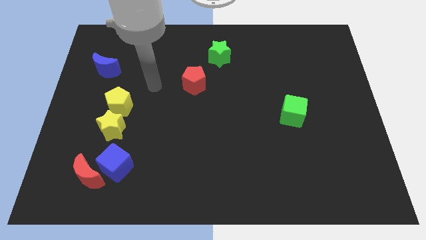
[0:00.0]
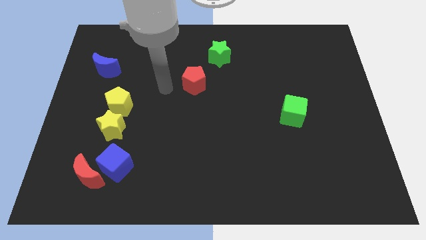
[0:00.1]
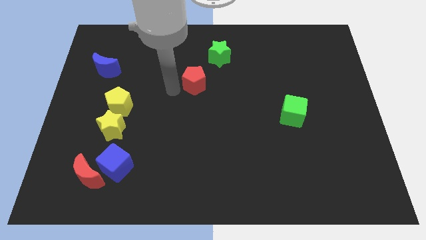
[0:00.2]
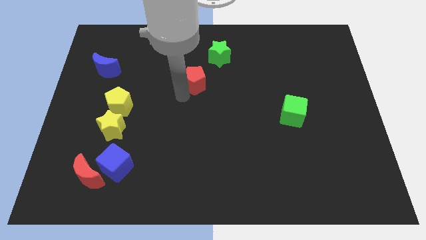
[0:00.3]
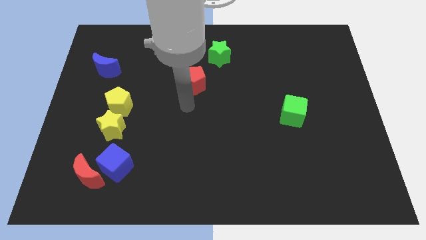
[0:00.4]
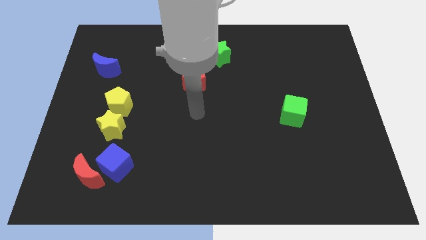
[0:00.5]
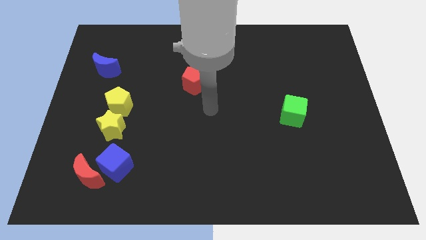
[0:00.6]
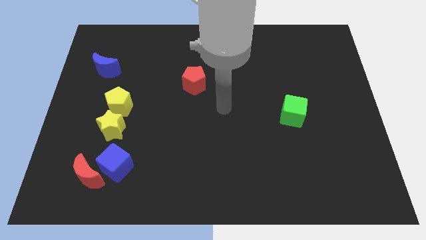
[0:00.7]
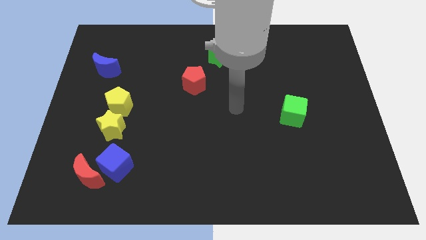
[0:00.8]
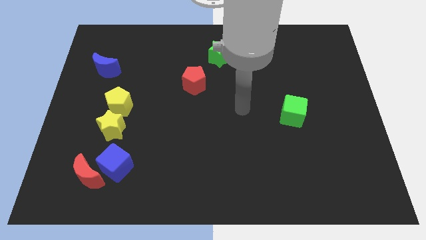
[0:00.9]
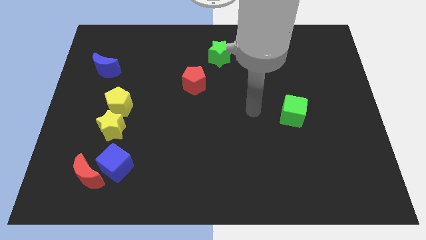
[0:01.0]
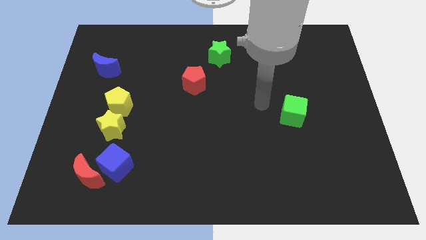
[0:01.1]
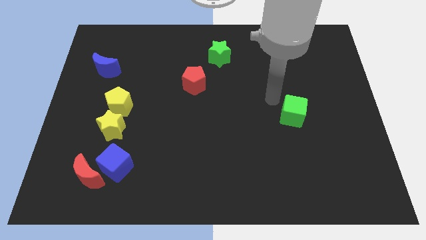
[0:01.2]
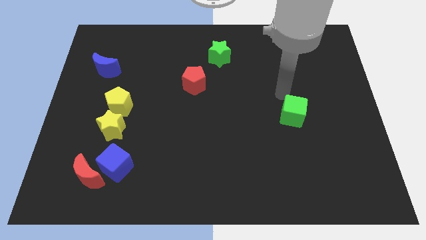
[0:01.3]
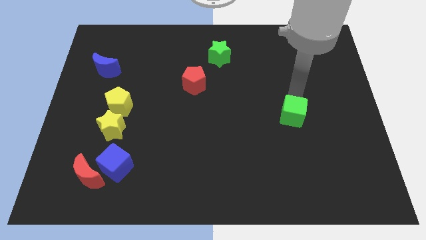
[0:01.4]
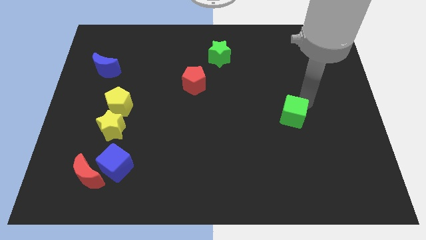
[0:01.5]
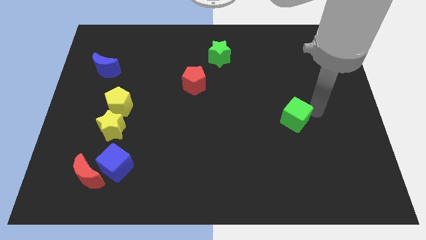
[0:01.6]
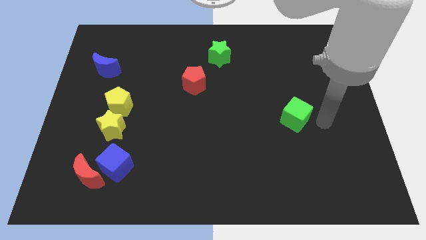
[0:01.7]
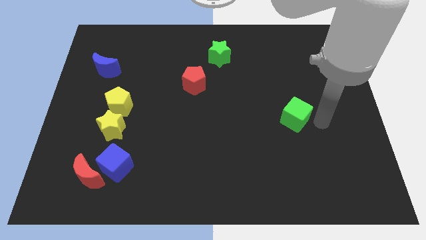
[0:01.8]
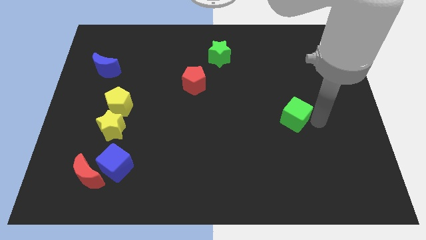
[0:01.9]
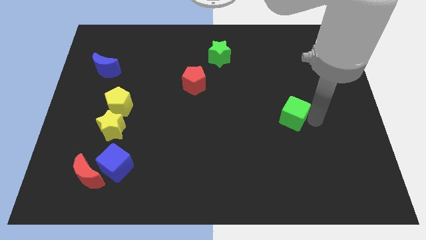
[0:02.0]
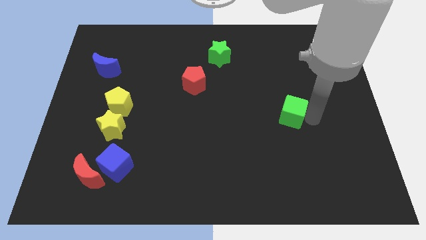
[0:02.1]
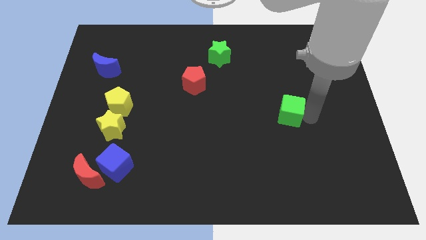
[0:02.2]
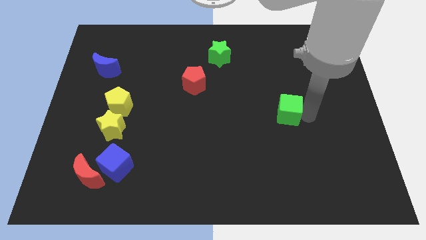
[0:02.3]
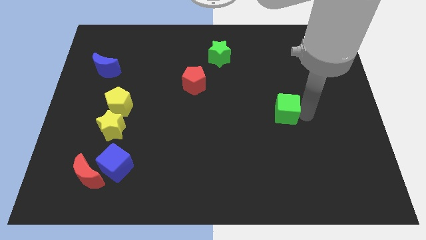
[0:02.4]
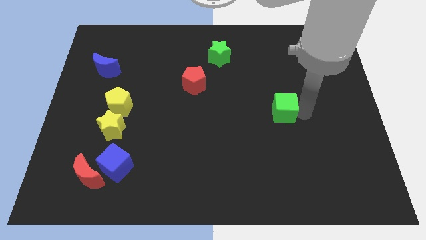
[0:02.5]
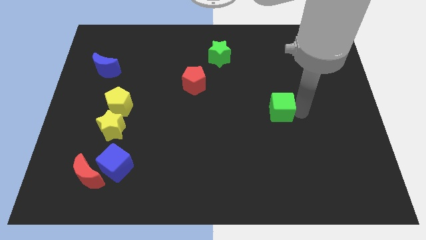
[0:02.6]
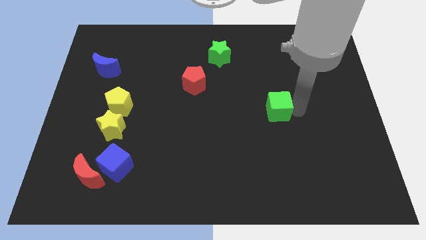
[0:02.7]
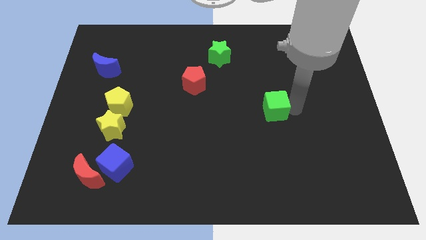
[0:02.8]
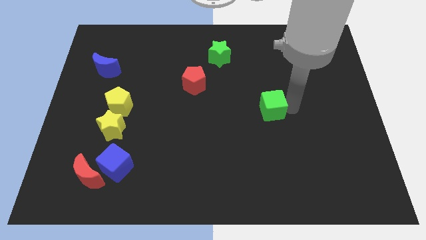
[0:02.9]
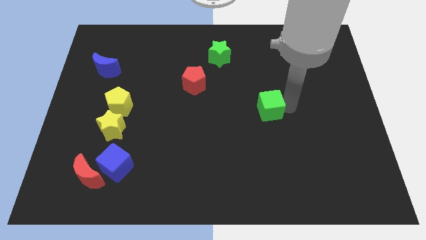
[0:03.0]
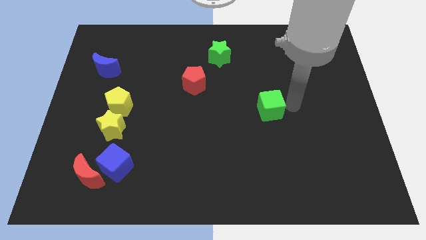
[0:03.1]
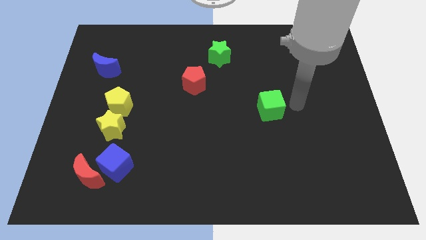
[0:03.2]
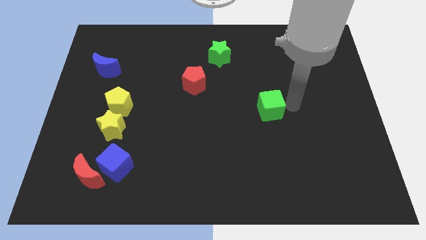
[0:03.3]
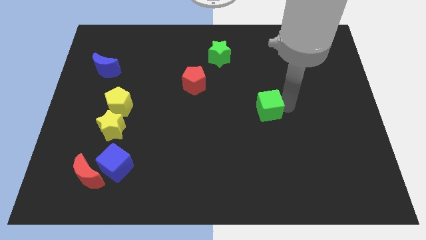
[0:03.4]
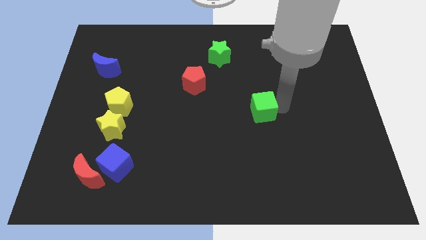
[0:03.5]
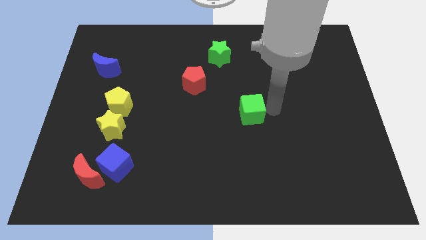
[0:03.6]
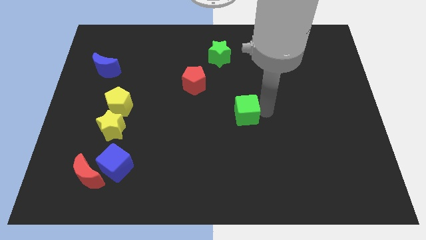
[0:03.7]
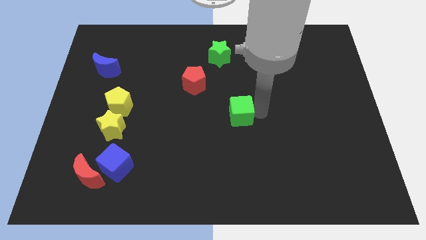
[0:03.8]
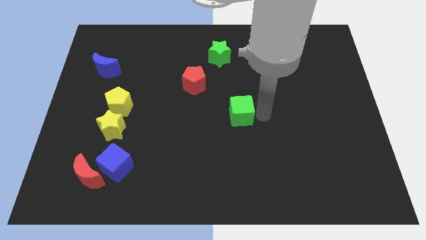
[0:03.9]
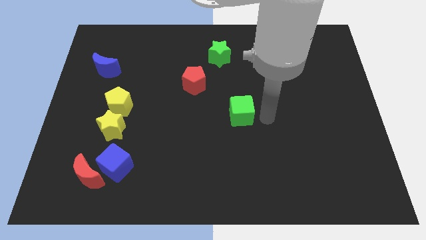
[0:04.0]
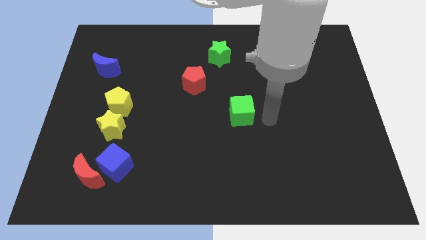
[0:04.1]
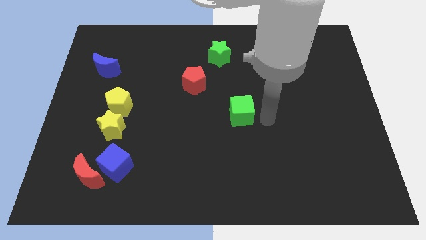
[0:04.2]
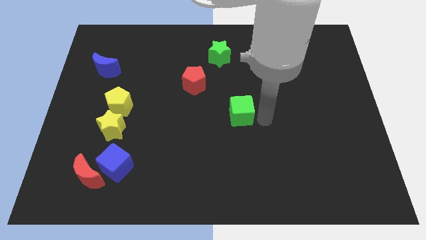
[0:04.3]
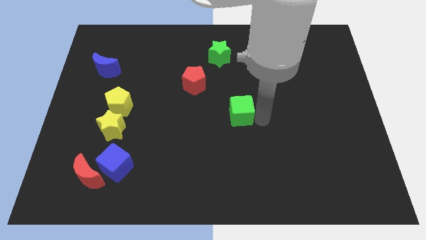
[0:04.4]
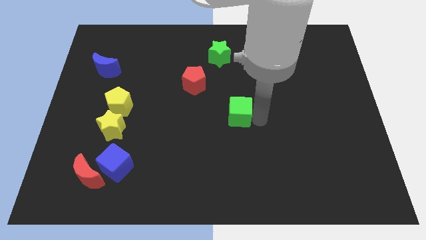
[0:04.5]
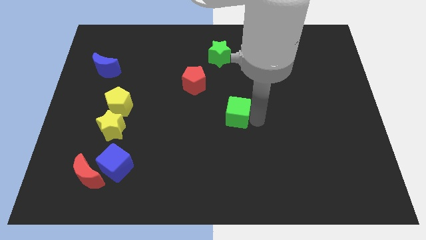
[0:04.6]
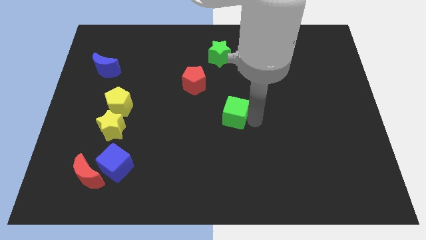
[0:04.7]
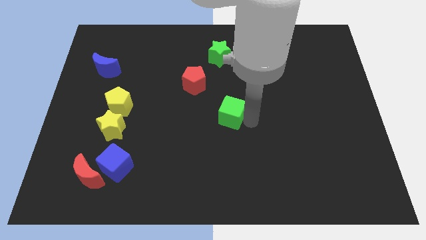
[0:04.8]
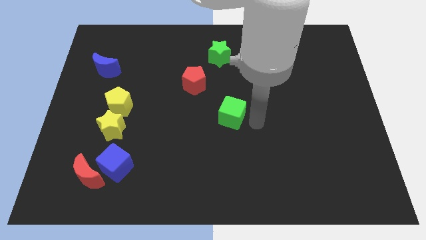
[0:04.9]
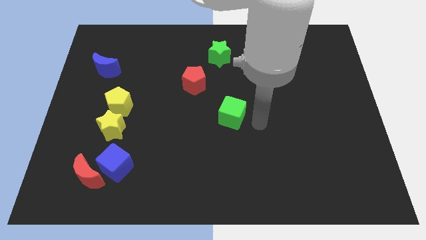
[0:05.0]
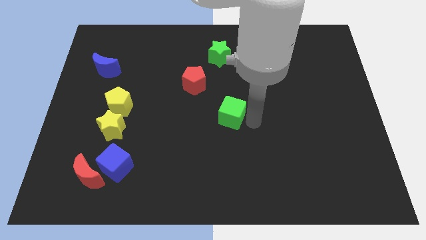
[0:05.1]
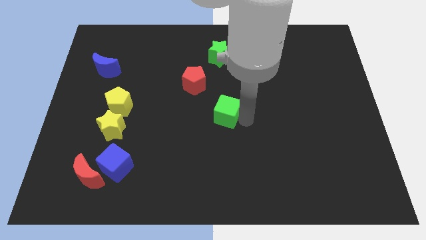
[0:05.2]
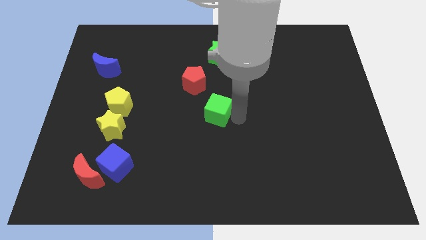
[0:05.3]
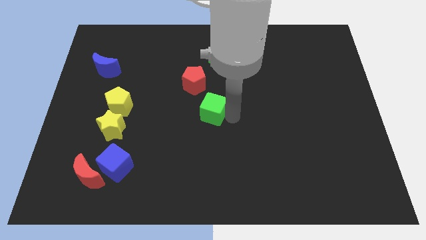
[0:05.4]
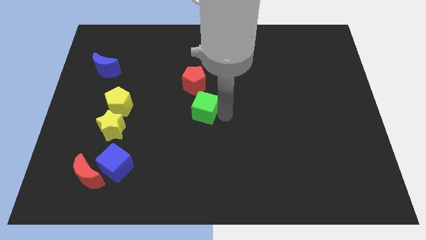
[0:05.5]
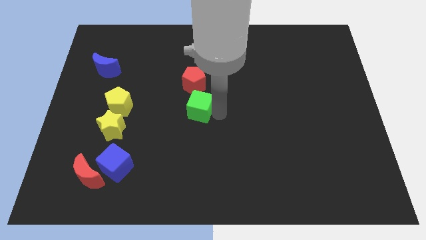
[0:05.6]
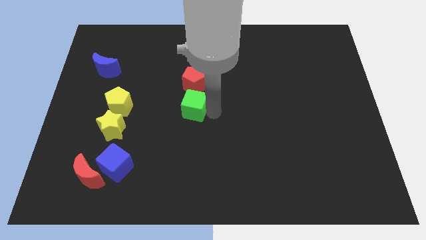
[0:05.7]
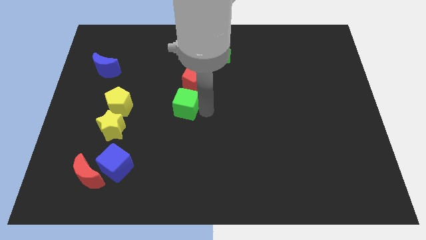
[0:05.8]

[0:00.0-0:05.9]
put the green cube to the right side of the yellow pentagon

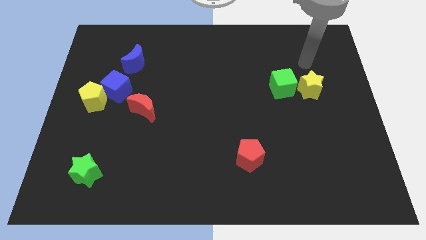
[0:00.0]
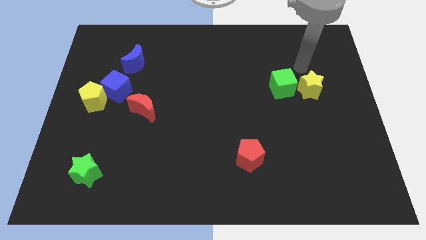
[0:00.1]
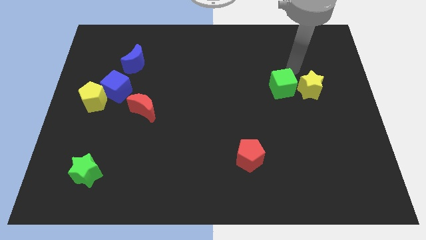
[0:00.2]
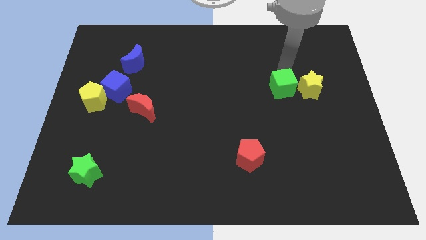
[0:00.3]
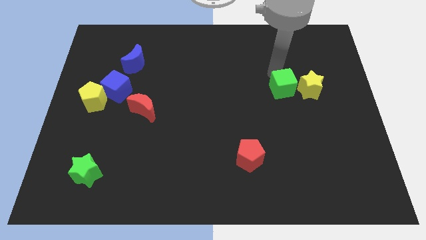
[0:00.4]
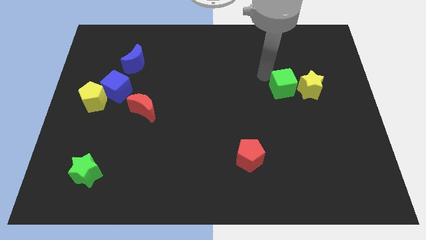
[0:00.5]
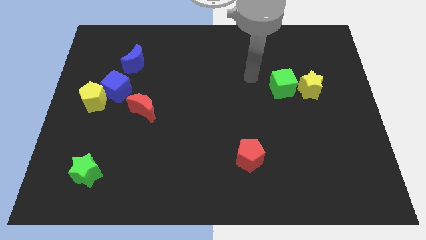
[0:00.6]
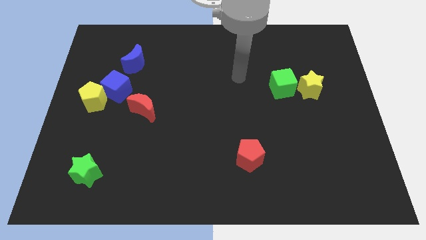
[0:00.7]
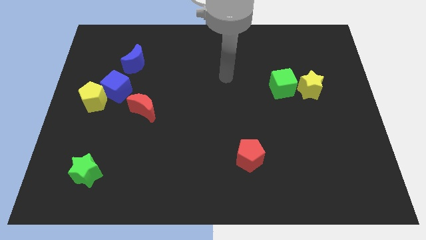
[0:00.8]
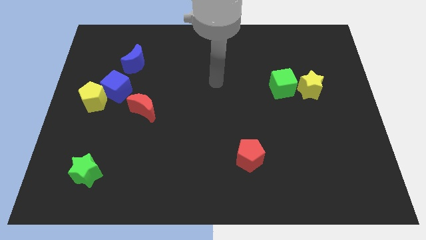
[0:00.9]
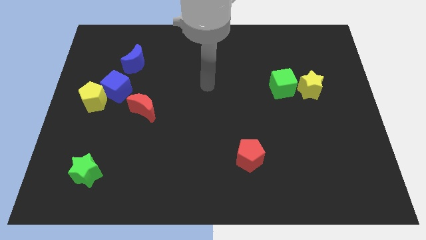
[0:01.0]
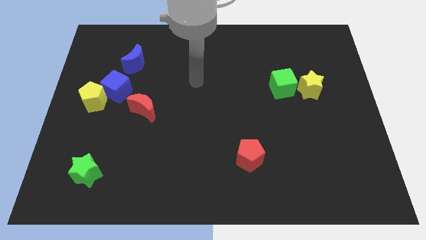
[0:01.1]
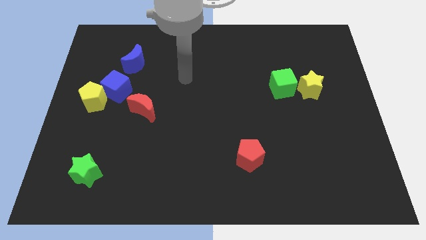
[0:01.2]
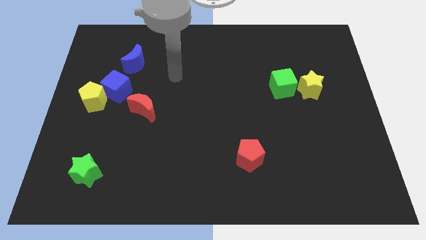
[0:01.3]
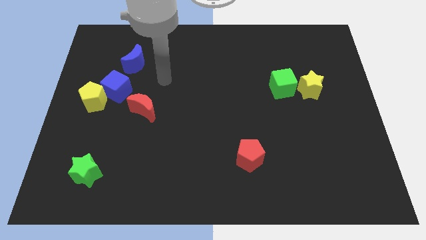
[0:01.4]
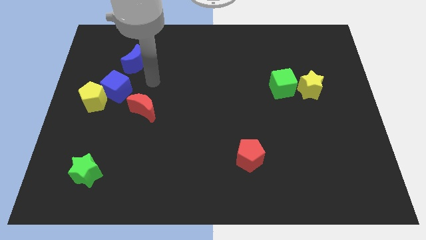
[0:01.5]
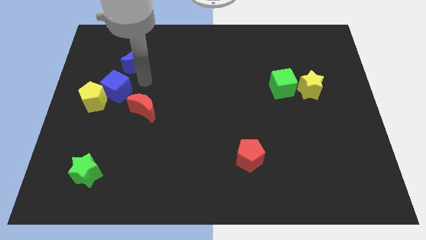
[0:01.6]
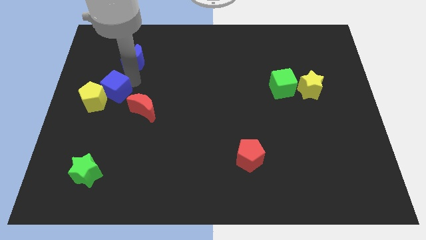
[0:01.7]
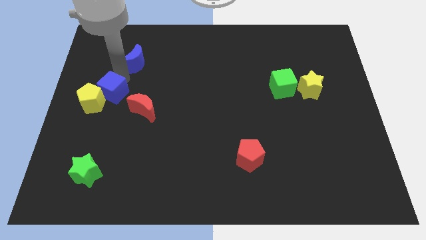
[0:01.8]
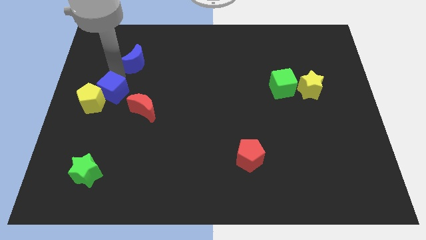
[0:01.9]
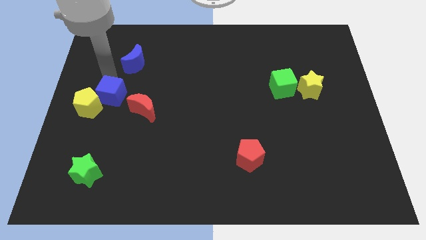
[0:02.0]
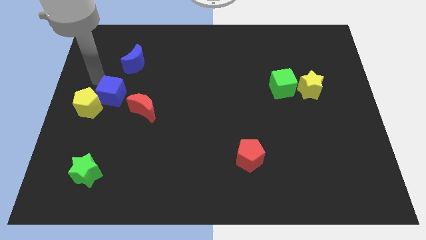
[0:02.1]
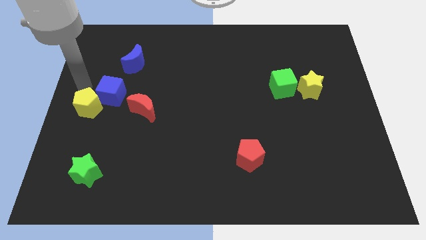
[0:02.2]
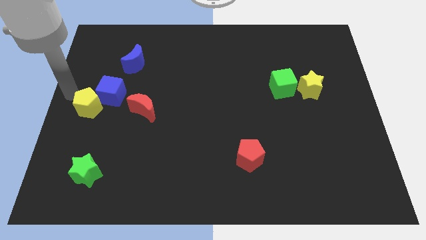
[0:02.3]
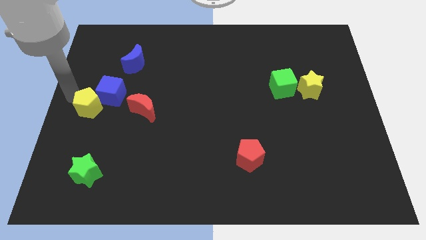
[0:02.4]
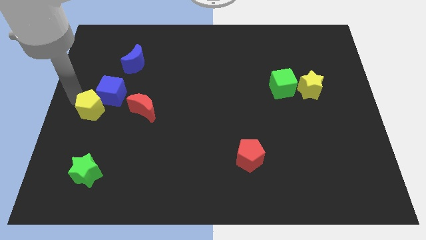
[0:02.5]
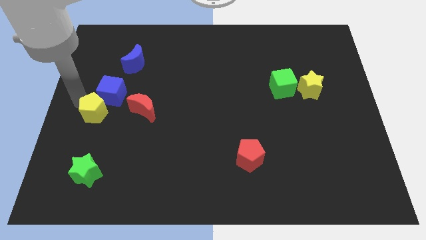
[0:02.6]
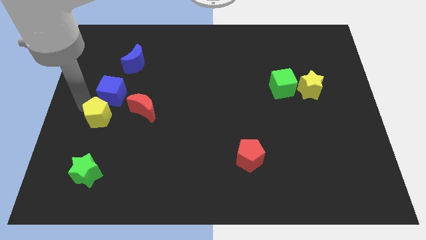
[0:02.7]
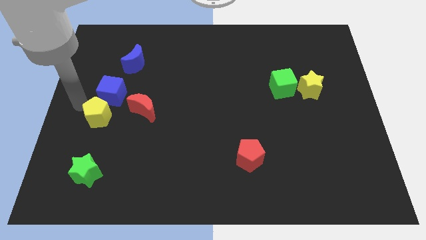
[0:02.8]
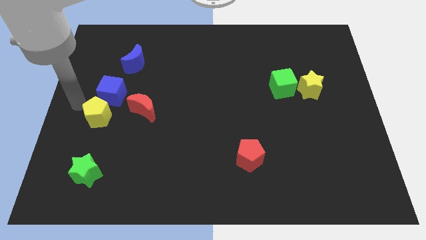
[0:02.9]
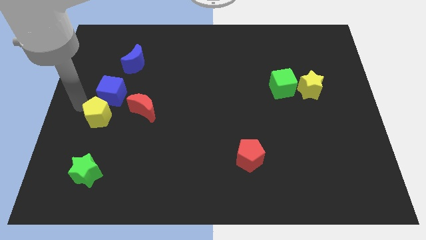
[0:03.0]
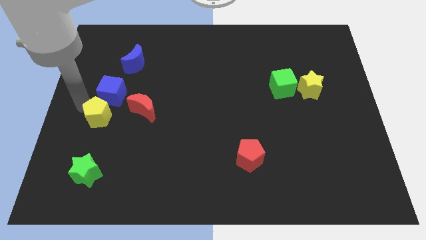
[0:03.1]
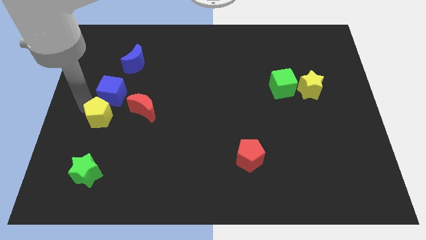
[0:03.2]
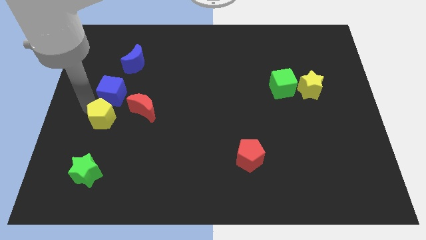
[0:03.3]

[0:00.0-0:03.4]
move the yellow pentagon diagonally down and to the left of the red moon
